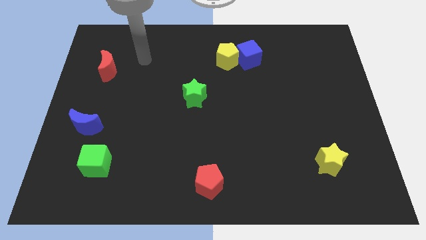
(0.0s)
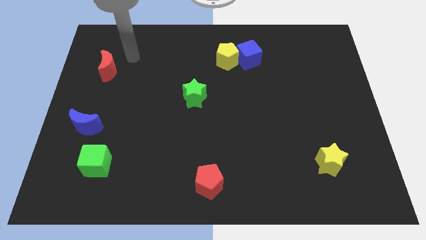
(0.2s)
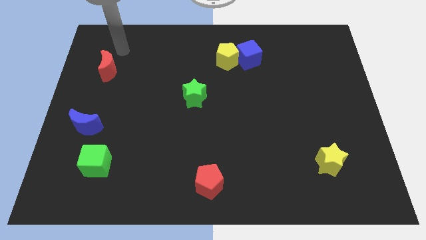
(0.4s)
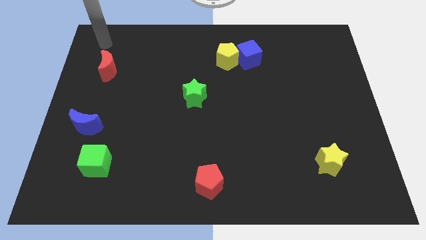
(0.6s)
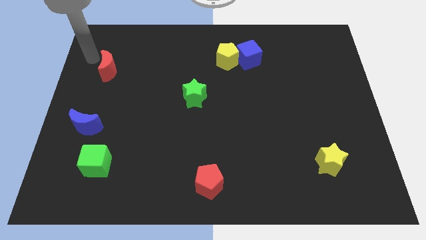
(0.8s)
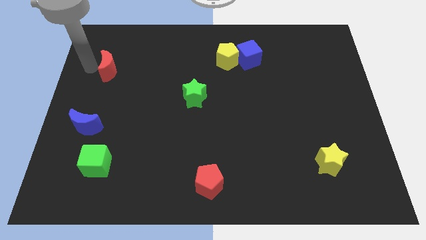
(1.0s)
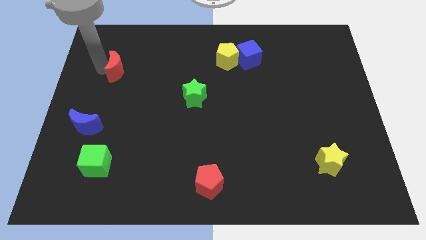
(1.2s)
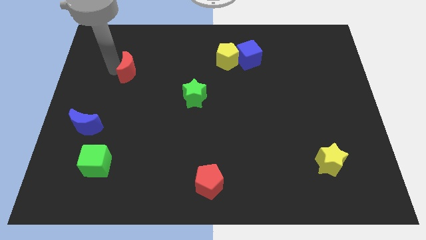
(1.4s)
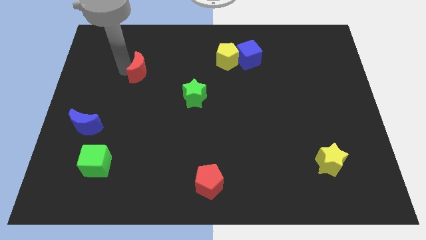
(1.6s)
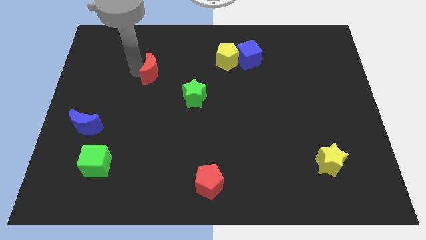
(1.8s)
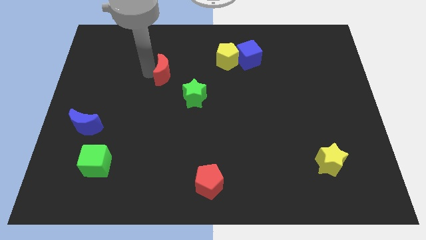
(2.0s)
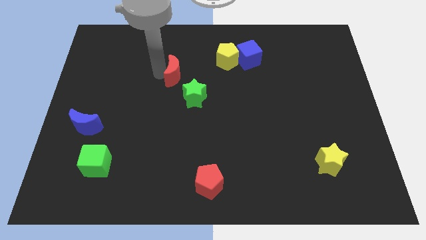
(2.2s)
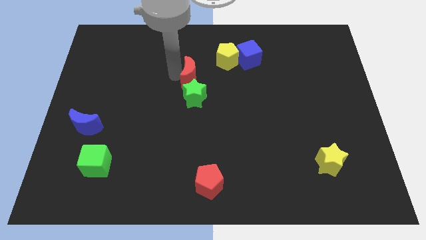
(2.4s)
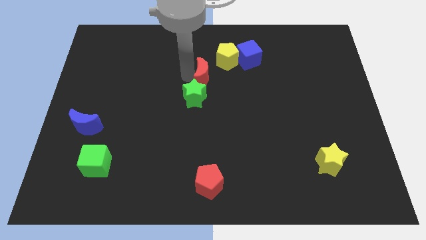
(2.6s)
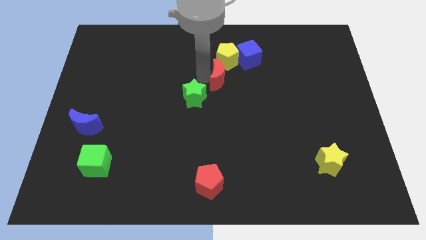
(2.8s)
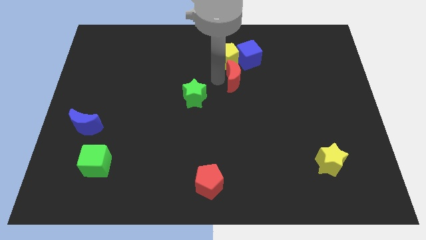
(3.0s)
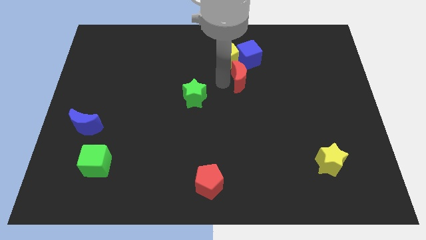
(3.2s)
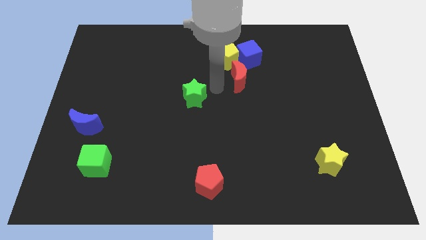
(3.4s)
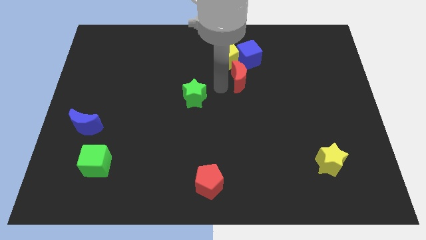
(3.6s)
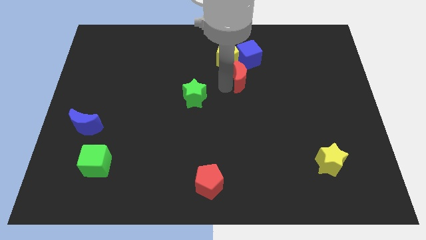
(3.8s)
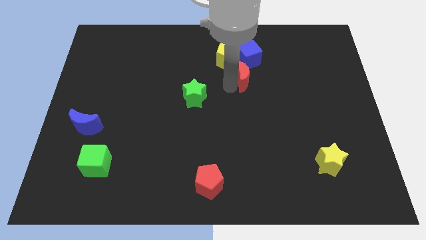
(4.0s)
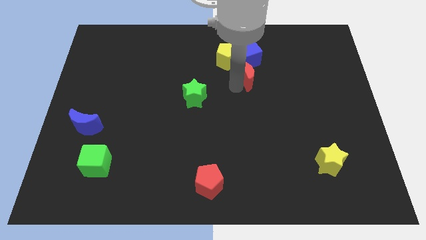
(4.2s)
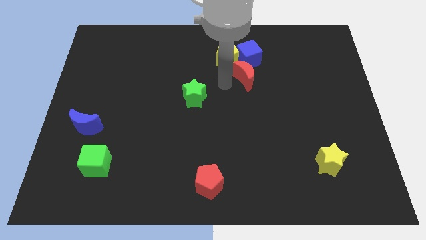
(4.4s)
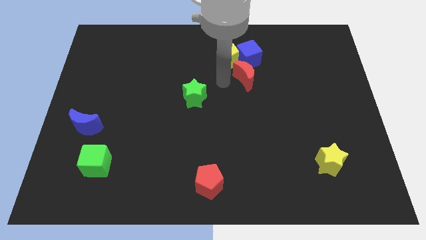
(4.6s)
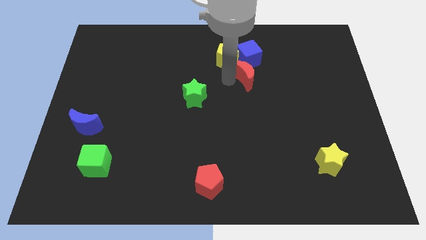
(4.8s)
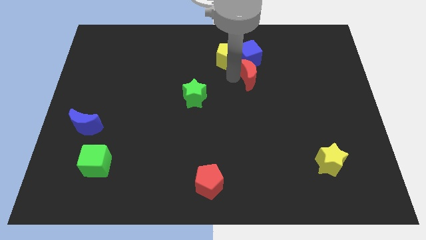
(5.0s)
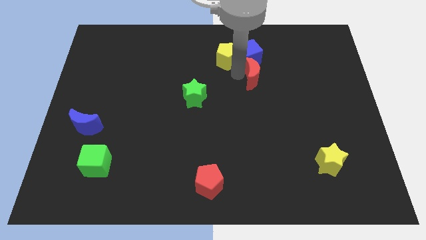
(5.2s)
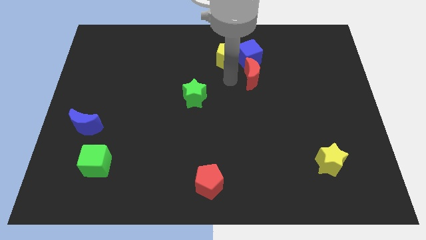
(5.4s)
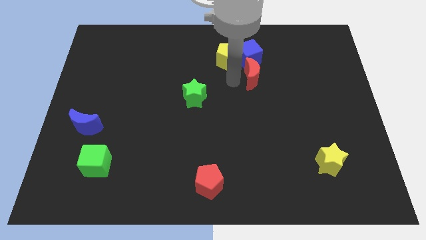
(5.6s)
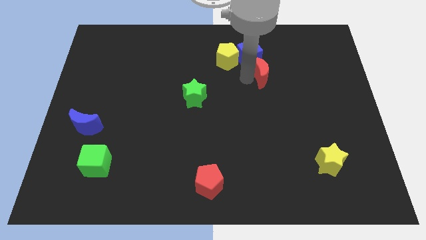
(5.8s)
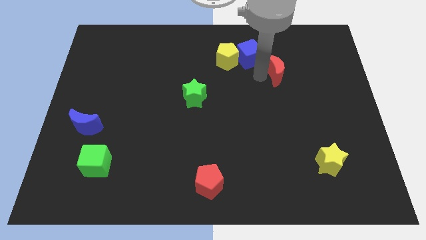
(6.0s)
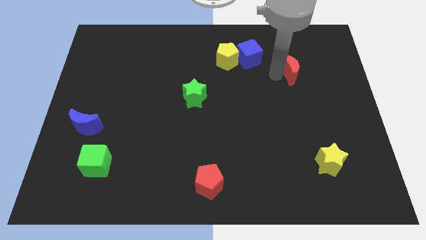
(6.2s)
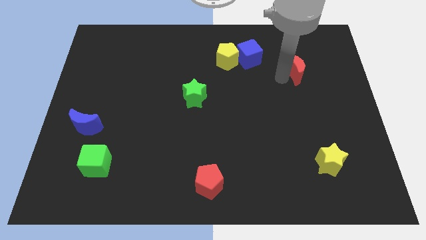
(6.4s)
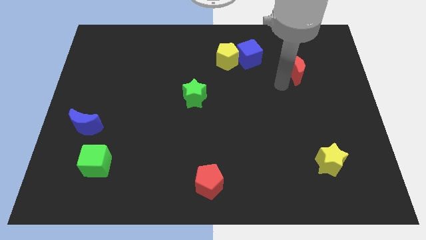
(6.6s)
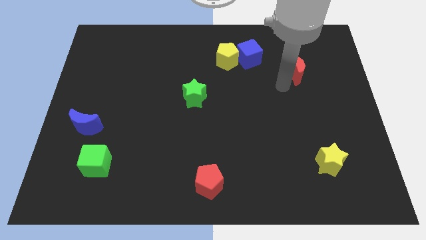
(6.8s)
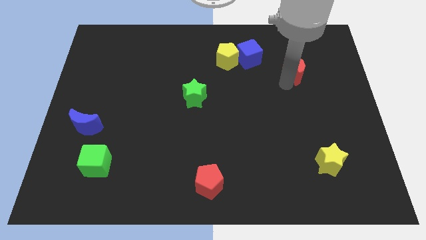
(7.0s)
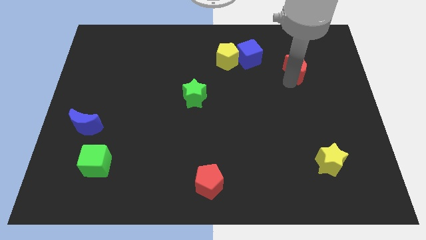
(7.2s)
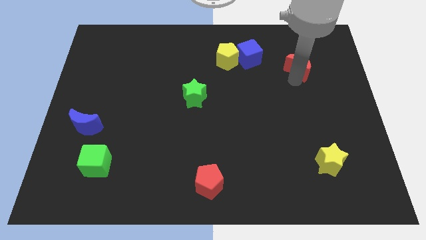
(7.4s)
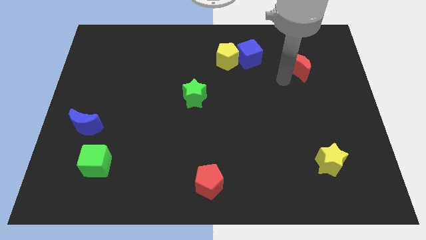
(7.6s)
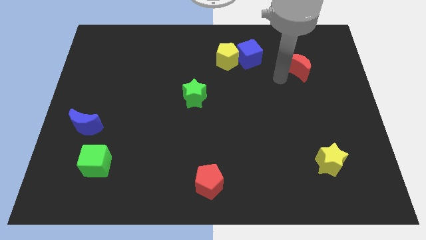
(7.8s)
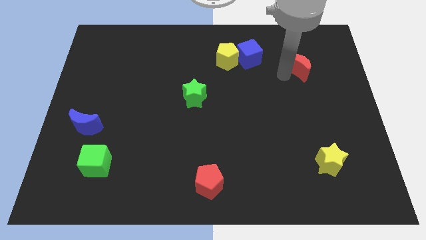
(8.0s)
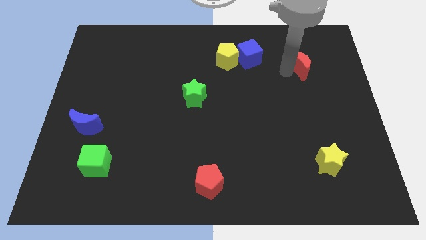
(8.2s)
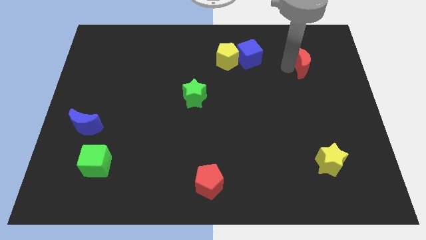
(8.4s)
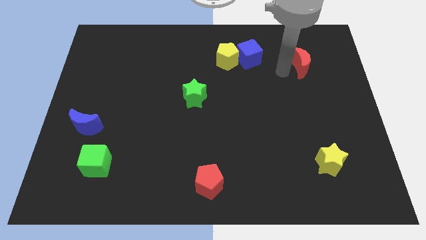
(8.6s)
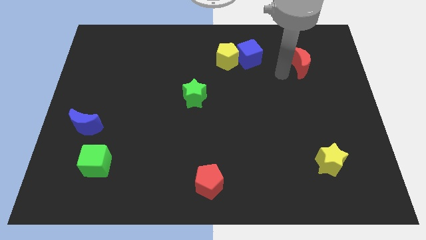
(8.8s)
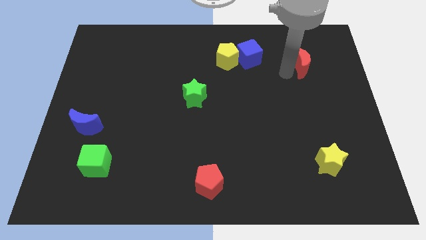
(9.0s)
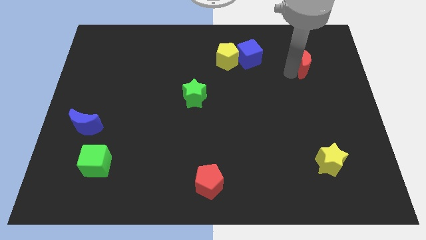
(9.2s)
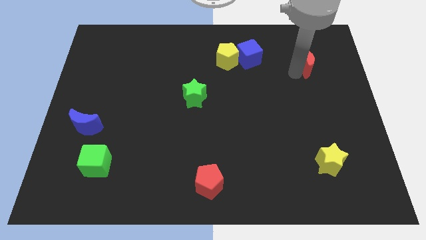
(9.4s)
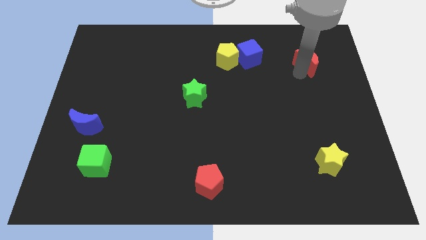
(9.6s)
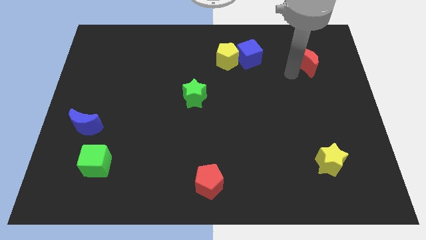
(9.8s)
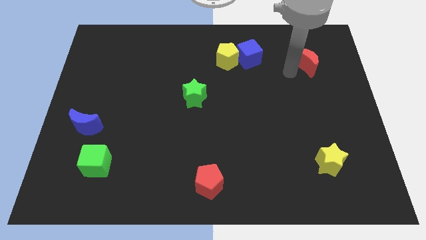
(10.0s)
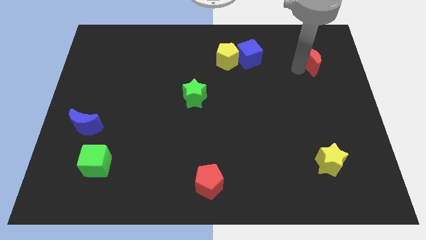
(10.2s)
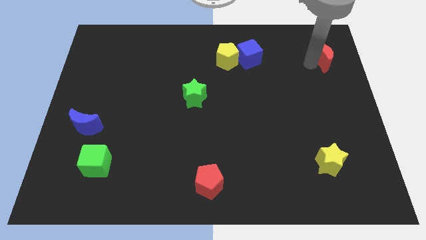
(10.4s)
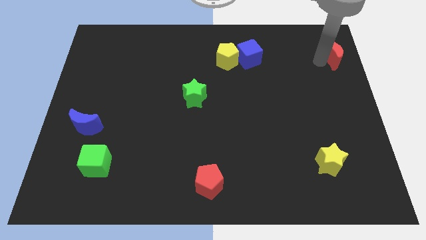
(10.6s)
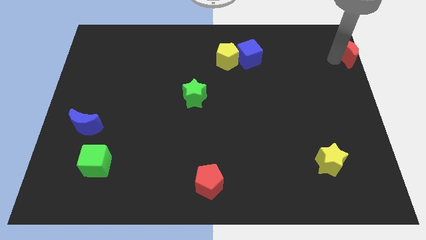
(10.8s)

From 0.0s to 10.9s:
push the red moon to the top right

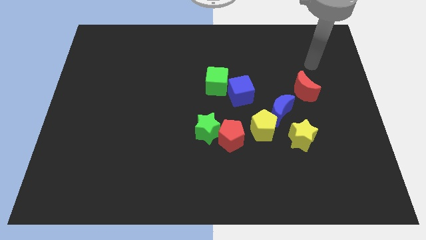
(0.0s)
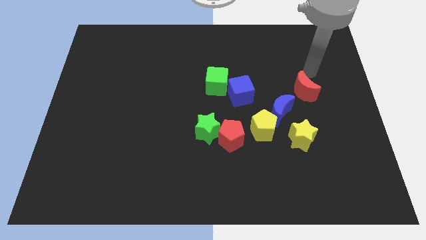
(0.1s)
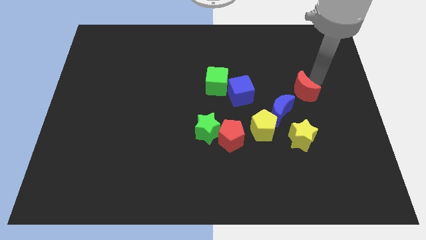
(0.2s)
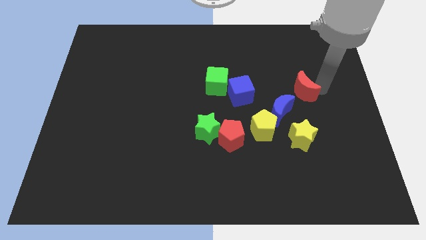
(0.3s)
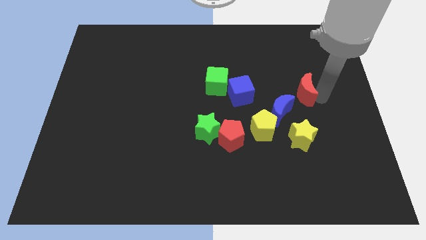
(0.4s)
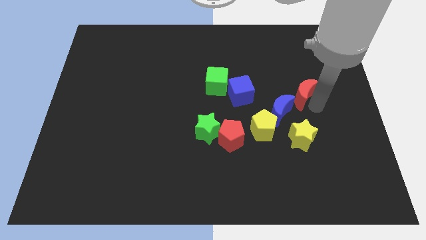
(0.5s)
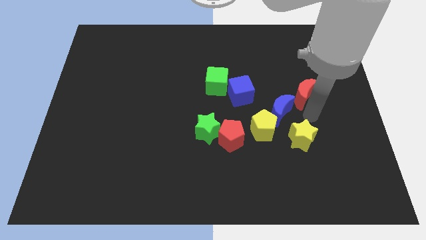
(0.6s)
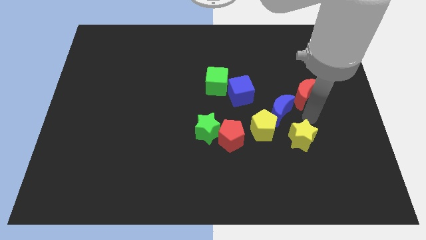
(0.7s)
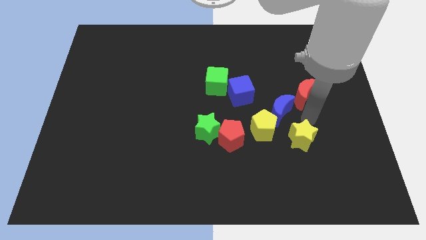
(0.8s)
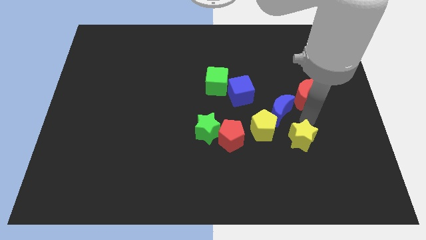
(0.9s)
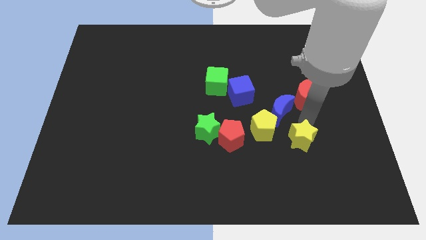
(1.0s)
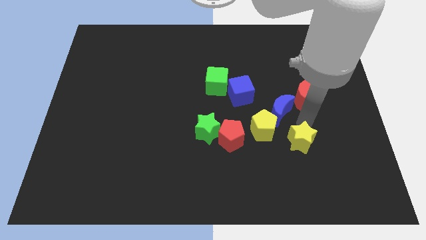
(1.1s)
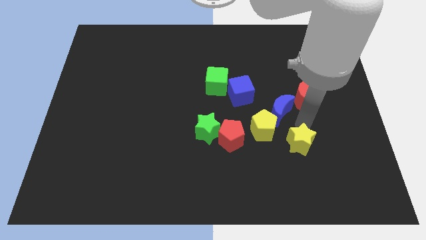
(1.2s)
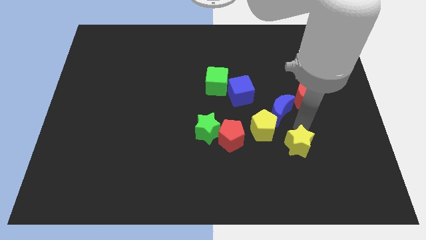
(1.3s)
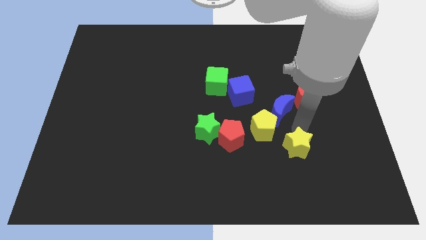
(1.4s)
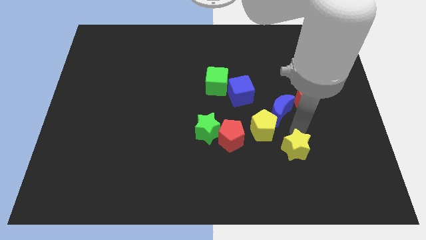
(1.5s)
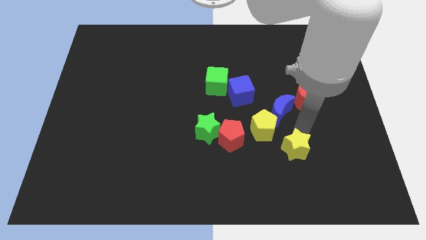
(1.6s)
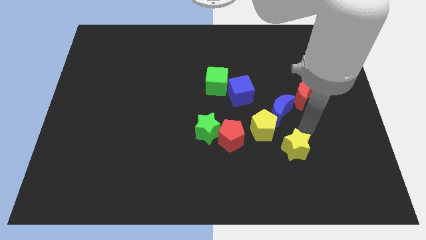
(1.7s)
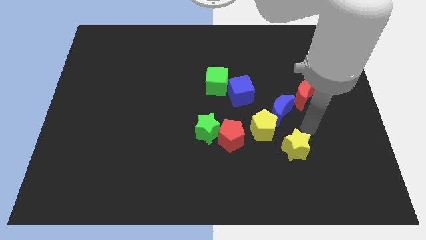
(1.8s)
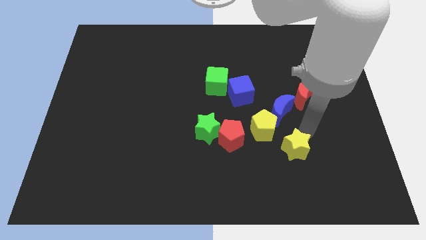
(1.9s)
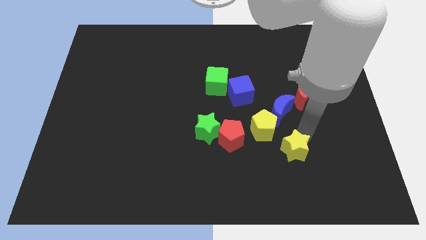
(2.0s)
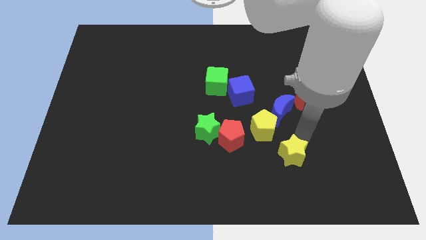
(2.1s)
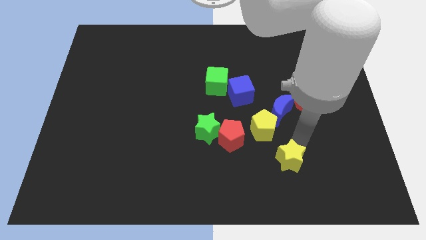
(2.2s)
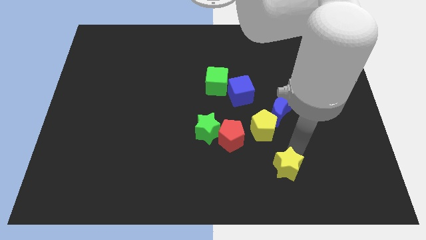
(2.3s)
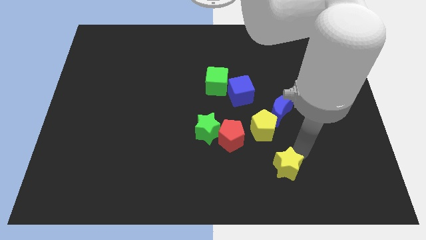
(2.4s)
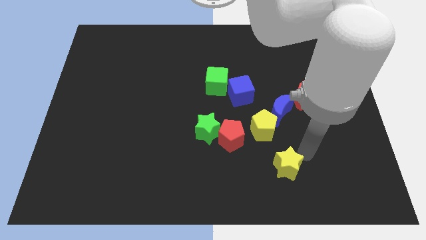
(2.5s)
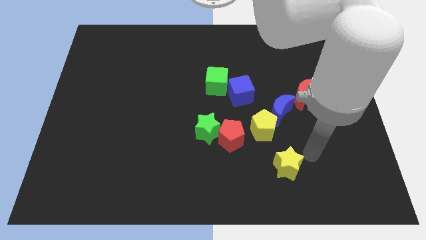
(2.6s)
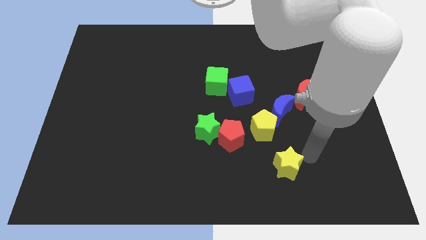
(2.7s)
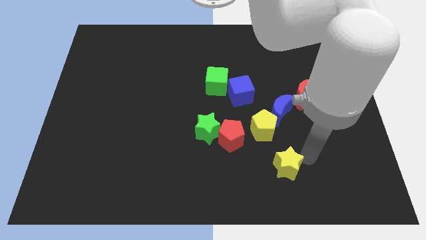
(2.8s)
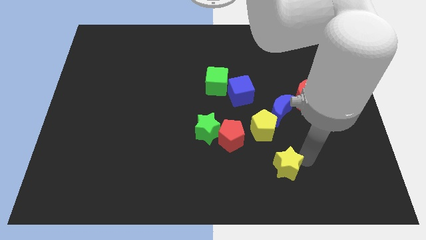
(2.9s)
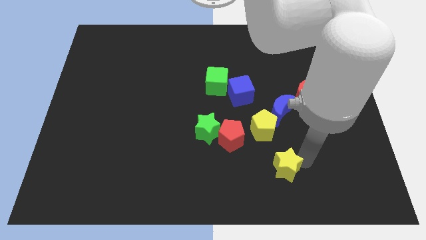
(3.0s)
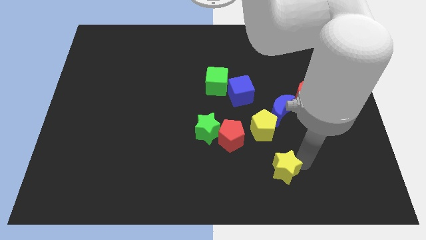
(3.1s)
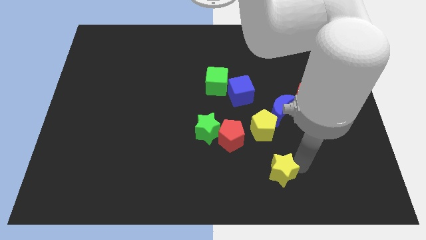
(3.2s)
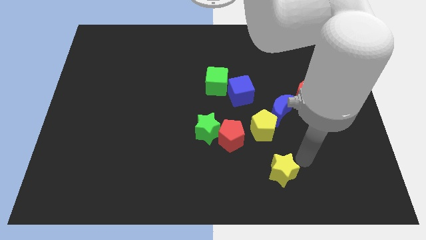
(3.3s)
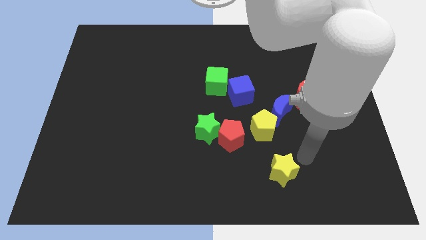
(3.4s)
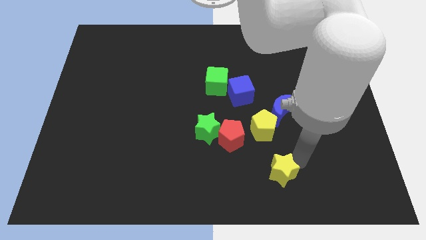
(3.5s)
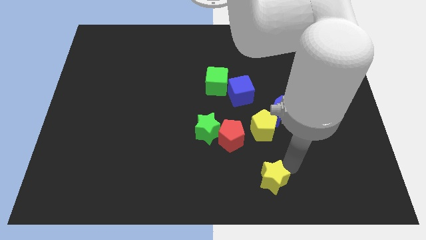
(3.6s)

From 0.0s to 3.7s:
slide the yellow star to the bottom side
